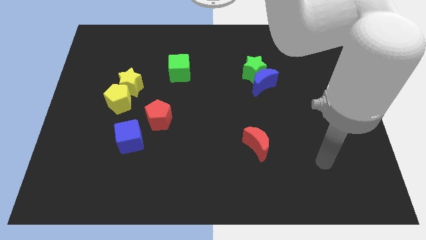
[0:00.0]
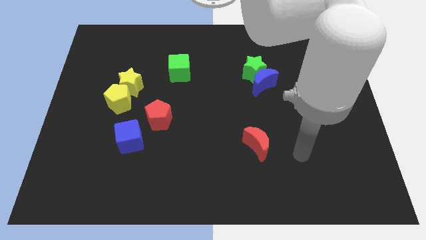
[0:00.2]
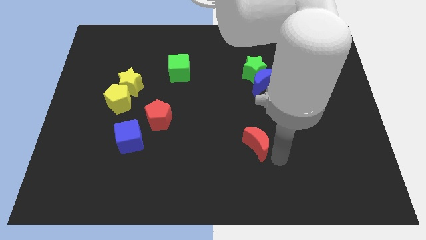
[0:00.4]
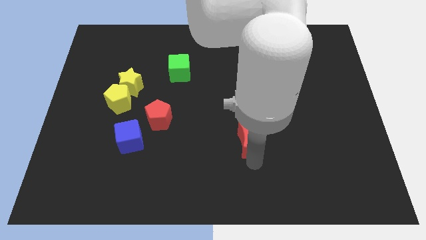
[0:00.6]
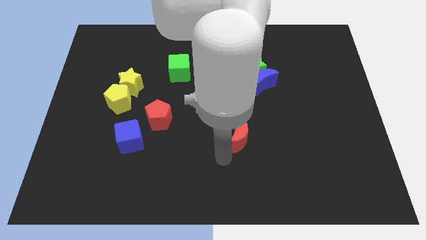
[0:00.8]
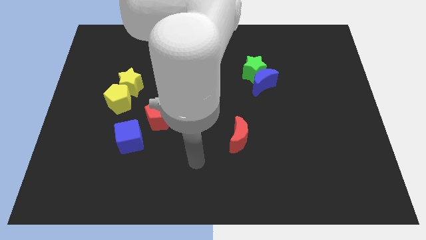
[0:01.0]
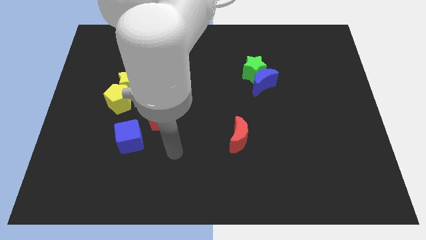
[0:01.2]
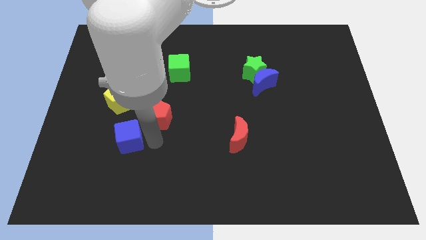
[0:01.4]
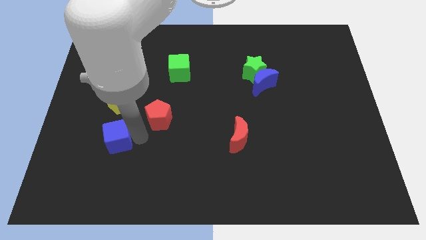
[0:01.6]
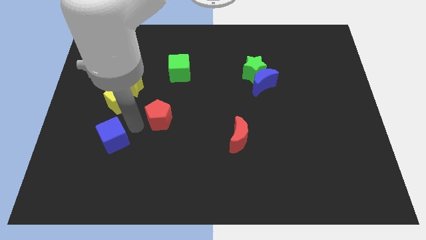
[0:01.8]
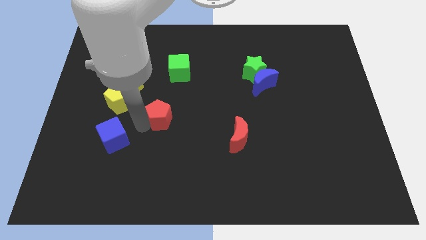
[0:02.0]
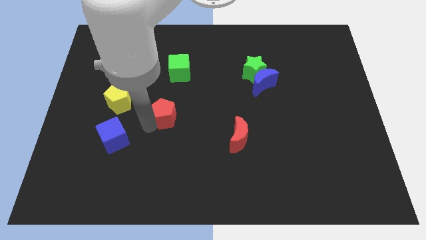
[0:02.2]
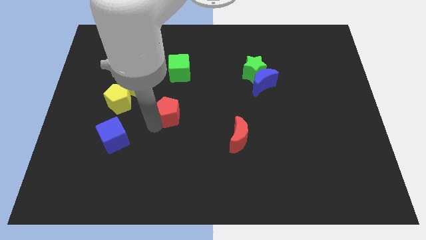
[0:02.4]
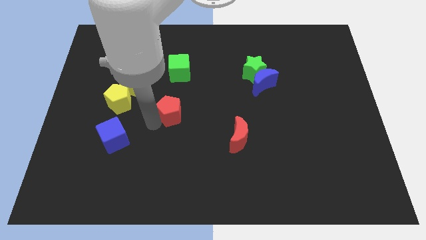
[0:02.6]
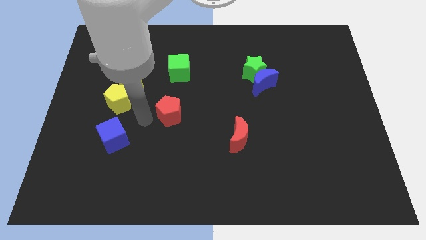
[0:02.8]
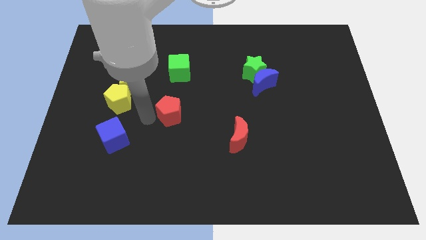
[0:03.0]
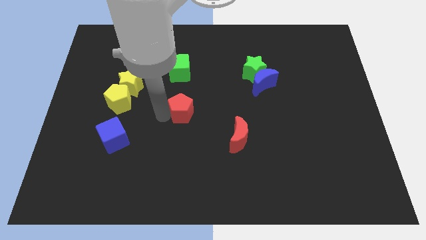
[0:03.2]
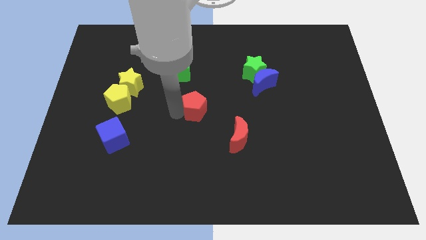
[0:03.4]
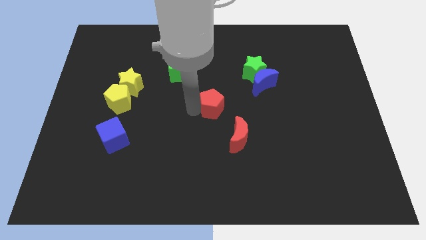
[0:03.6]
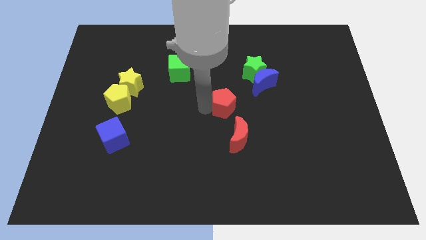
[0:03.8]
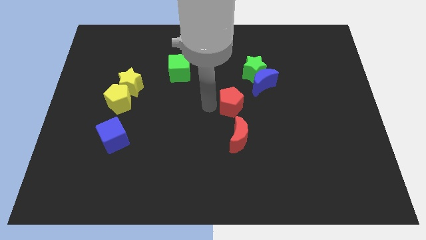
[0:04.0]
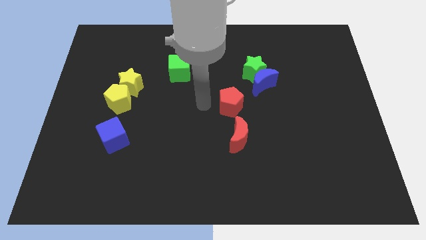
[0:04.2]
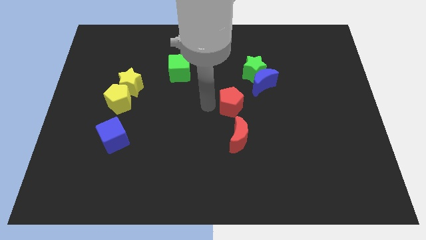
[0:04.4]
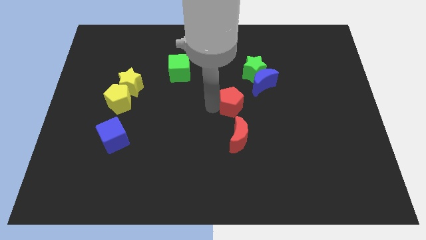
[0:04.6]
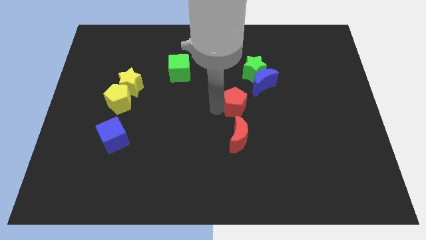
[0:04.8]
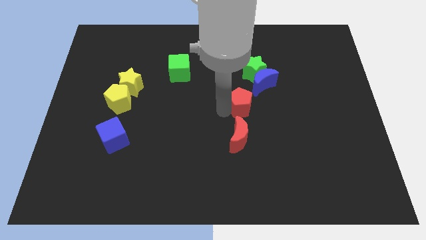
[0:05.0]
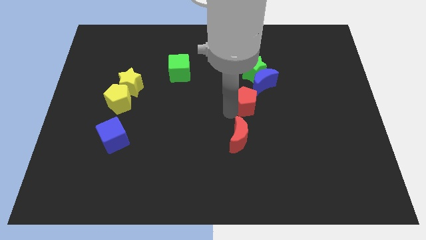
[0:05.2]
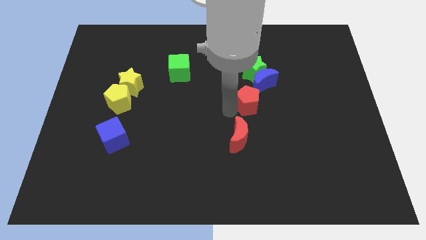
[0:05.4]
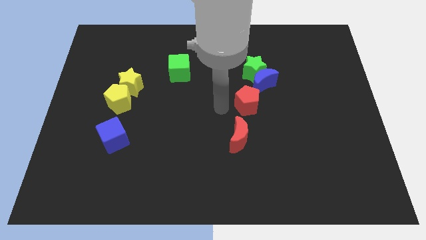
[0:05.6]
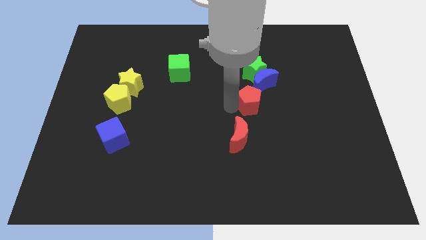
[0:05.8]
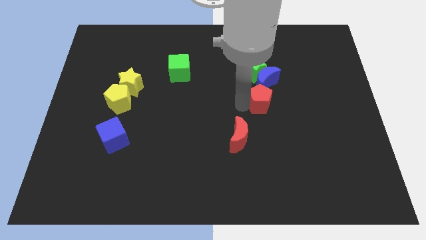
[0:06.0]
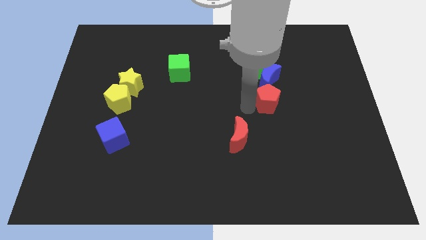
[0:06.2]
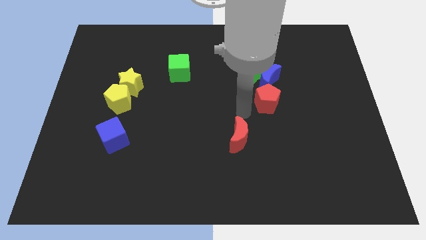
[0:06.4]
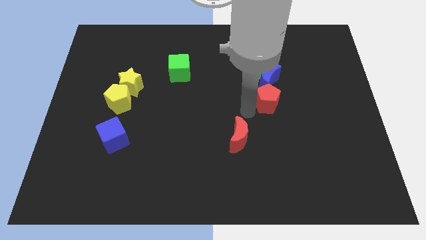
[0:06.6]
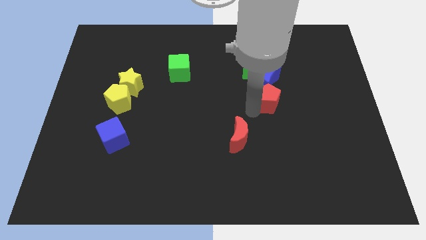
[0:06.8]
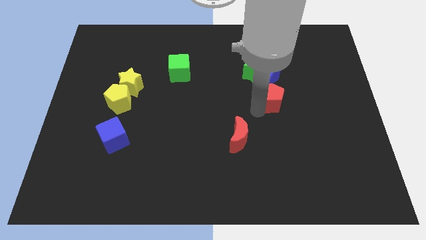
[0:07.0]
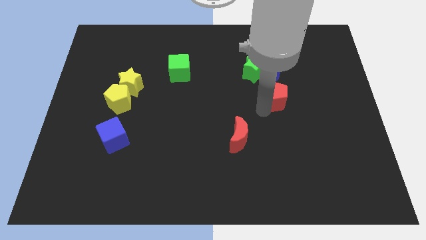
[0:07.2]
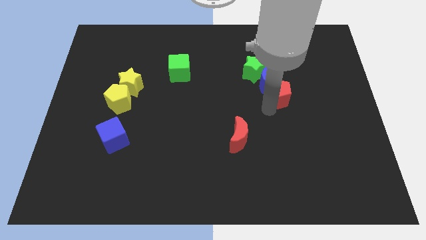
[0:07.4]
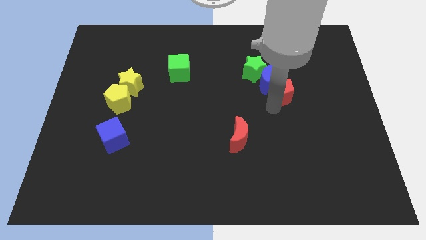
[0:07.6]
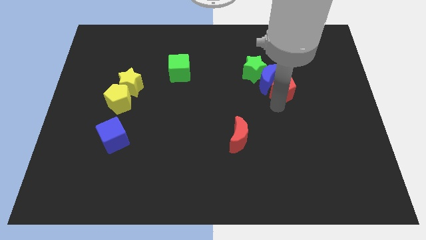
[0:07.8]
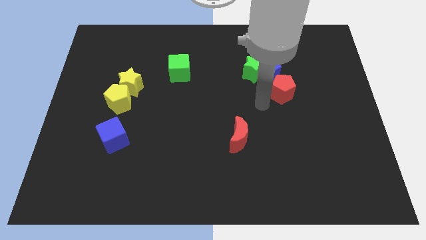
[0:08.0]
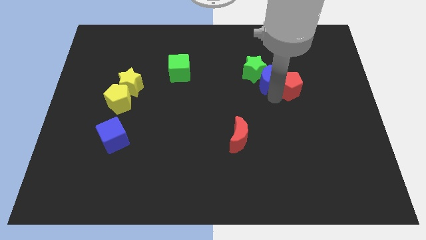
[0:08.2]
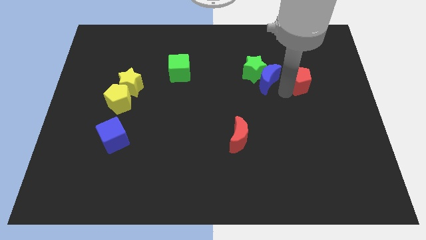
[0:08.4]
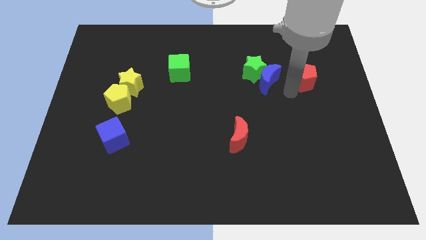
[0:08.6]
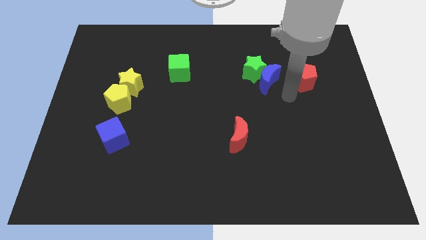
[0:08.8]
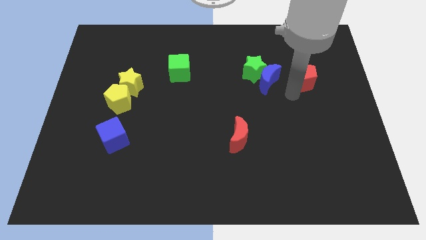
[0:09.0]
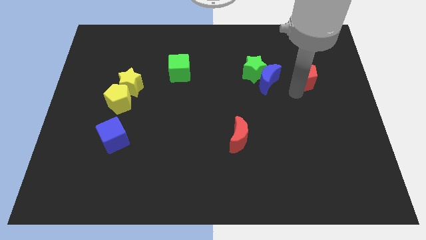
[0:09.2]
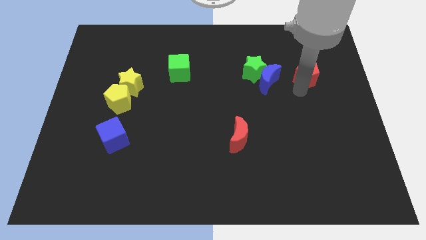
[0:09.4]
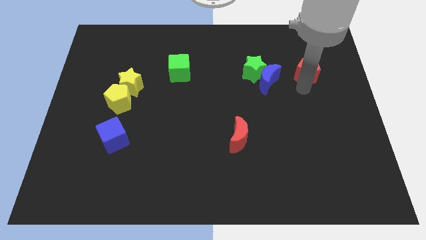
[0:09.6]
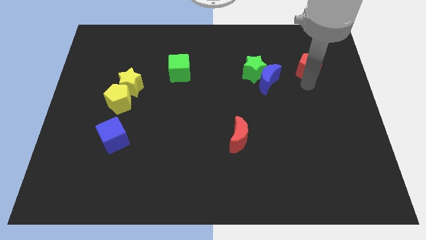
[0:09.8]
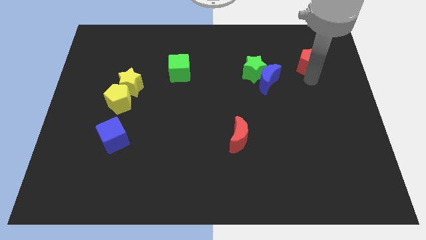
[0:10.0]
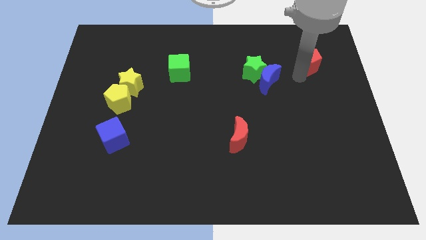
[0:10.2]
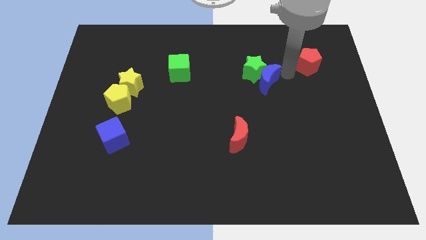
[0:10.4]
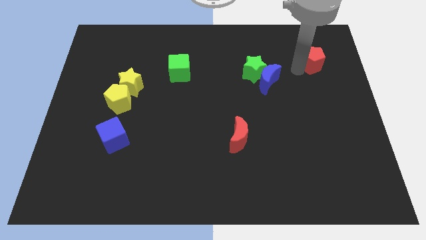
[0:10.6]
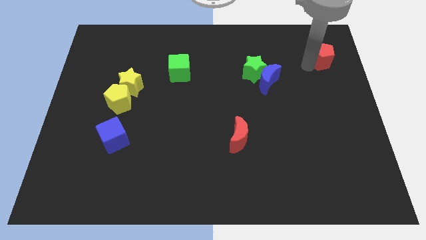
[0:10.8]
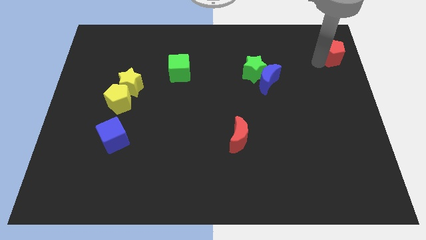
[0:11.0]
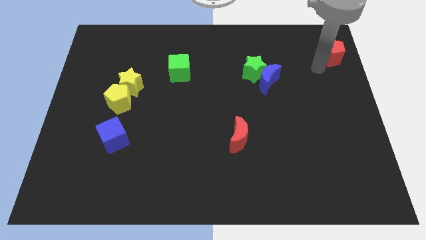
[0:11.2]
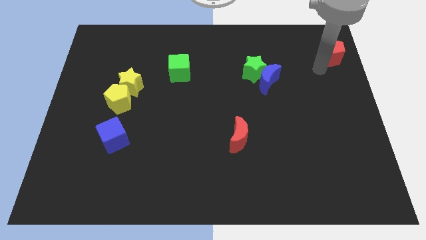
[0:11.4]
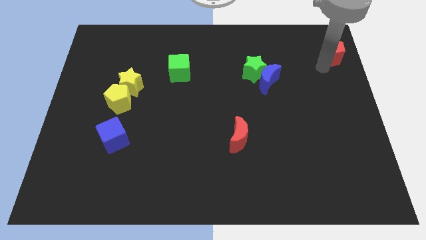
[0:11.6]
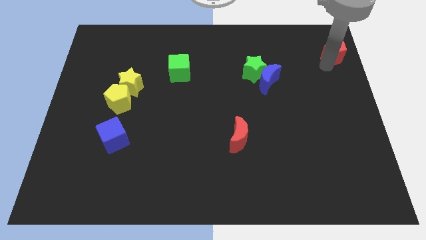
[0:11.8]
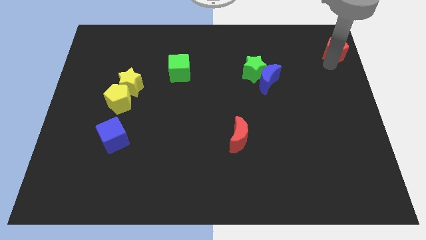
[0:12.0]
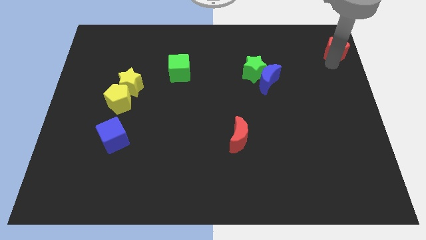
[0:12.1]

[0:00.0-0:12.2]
put the red pentagon to the upper right corner
